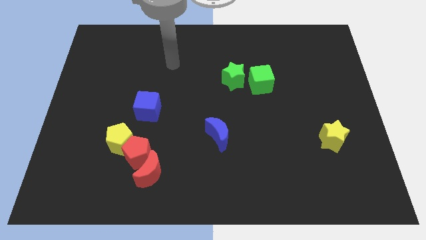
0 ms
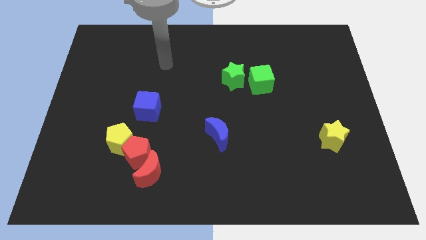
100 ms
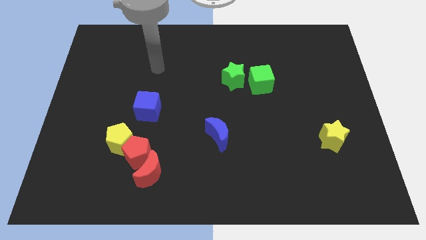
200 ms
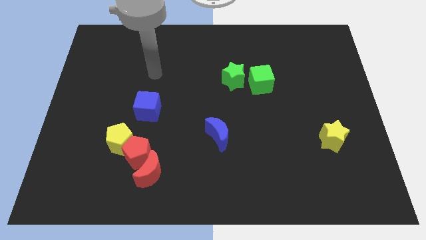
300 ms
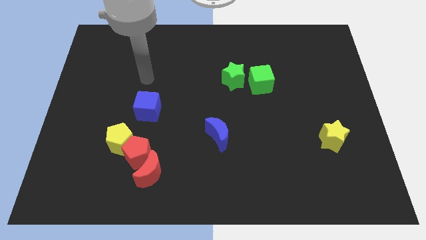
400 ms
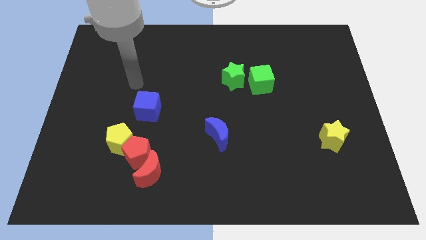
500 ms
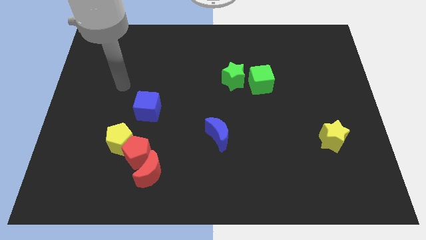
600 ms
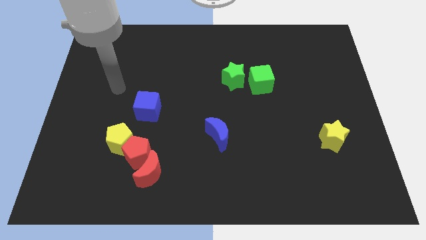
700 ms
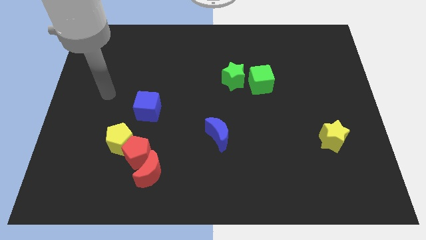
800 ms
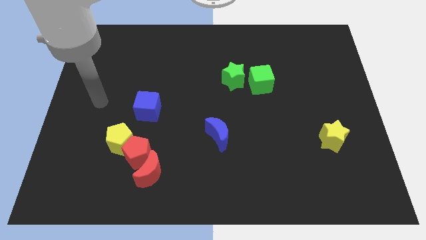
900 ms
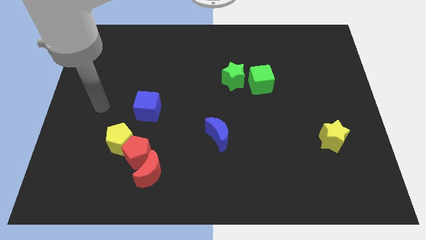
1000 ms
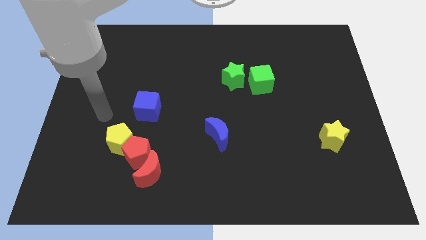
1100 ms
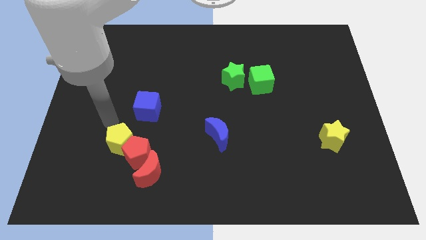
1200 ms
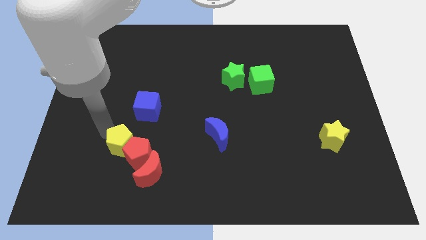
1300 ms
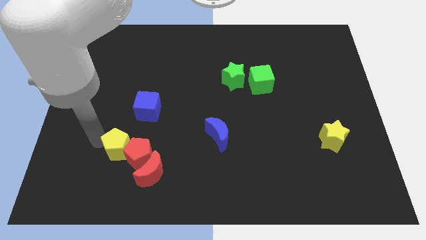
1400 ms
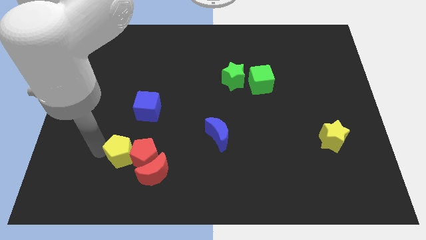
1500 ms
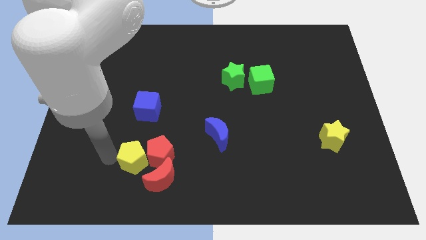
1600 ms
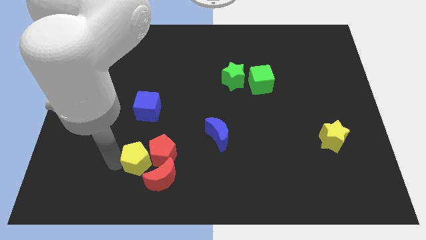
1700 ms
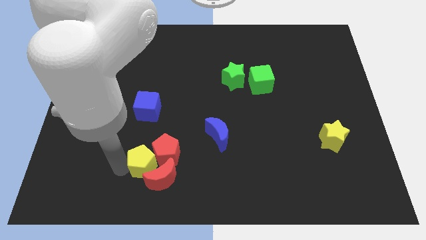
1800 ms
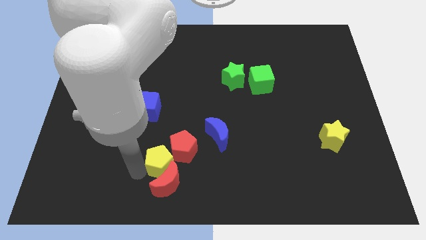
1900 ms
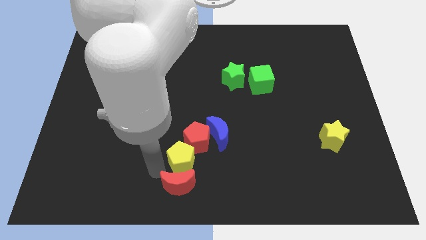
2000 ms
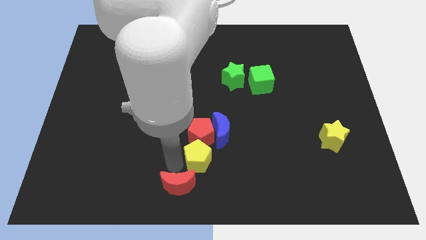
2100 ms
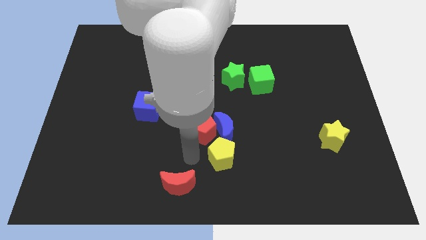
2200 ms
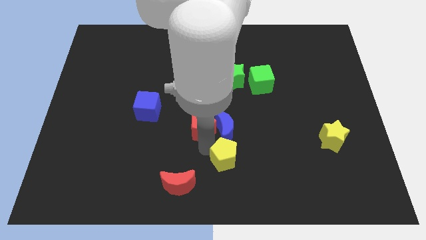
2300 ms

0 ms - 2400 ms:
pull the red pentagon apart from the yellow pentagon and red moon

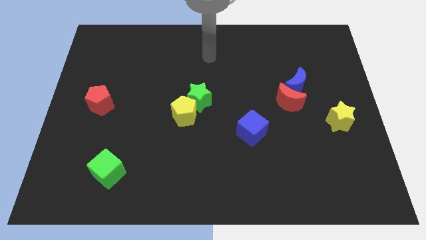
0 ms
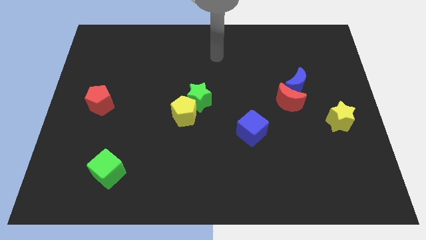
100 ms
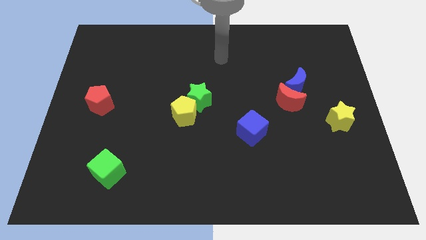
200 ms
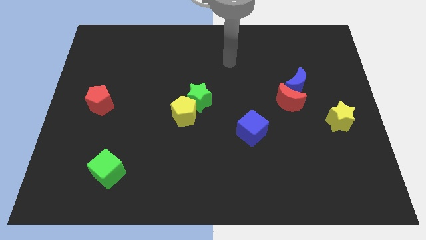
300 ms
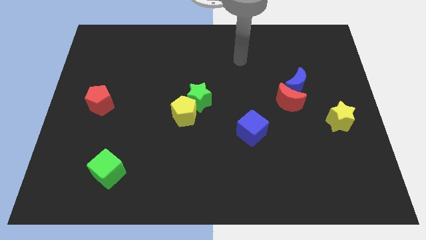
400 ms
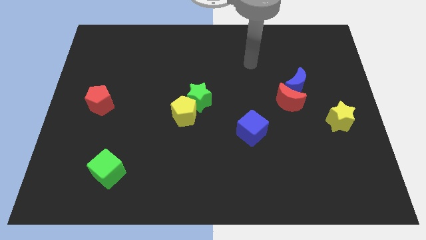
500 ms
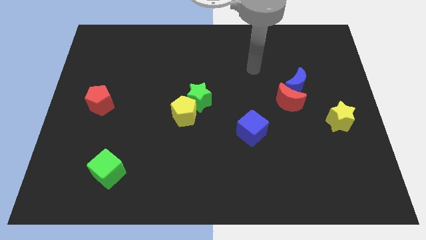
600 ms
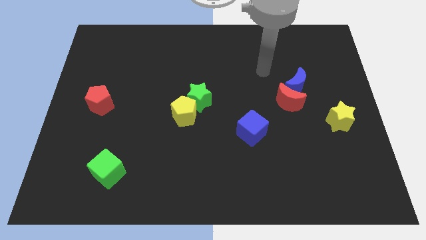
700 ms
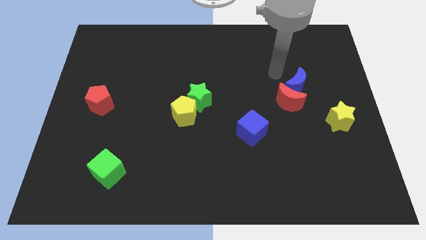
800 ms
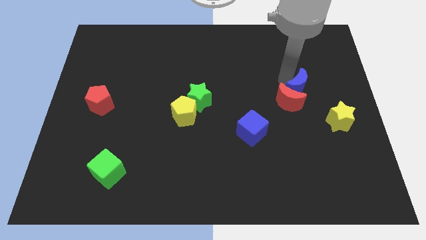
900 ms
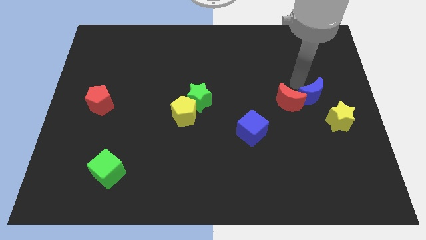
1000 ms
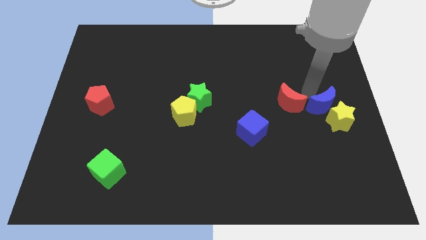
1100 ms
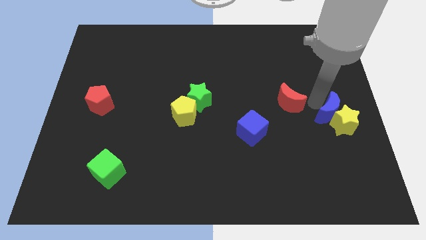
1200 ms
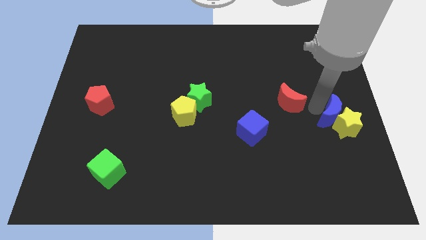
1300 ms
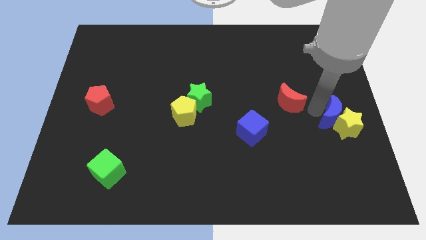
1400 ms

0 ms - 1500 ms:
move the red moon away from the blue moon

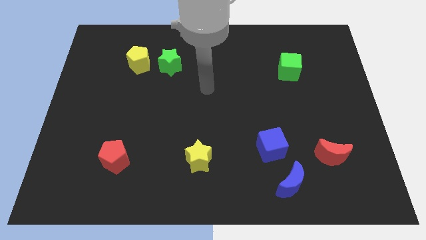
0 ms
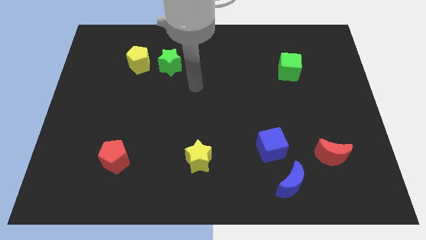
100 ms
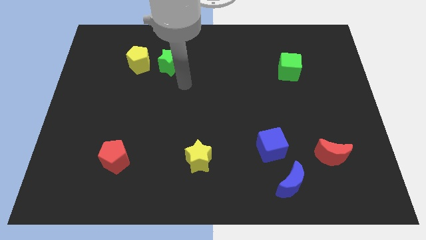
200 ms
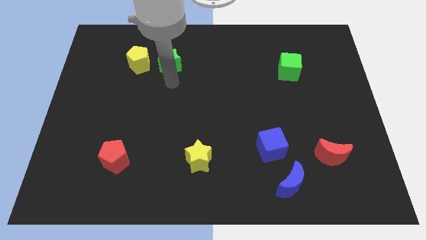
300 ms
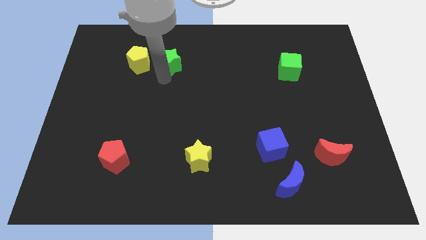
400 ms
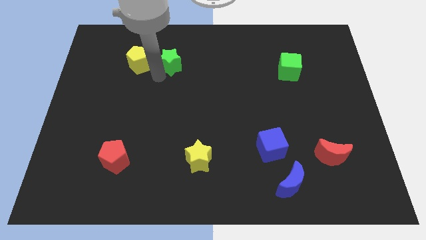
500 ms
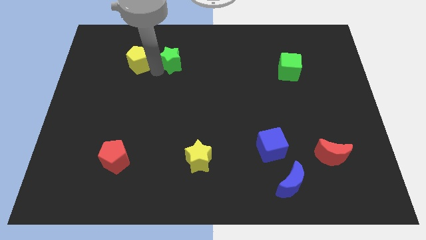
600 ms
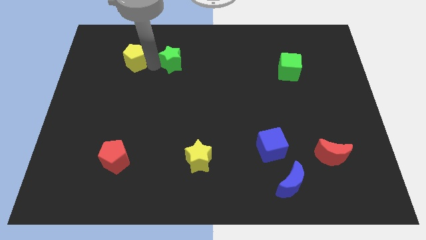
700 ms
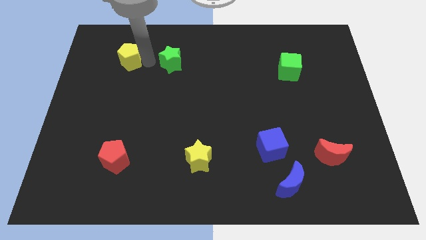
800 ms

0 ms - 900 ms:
separate the green star from the yellow pentagon

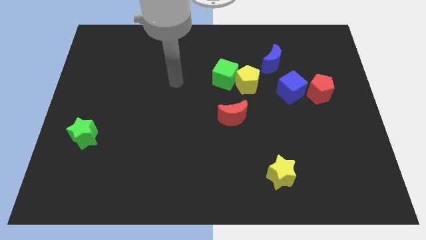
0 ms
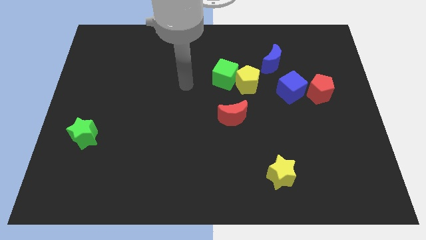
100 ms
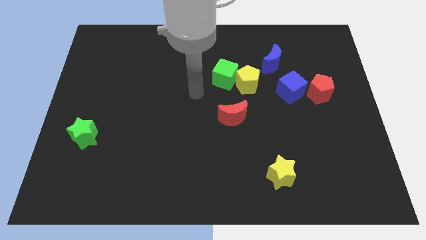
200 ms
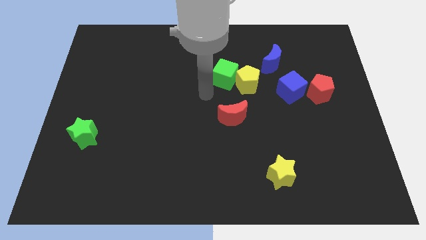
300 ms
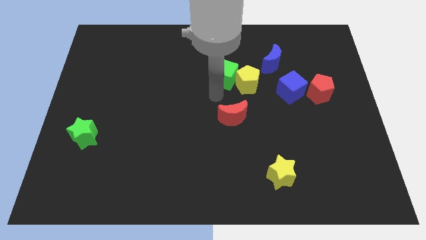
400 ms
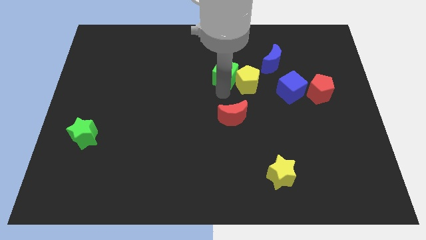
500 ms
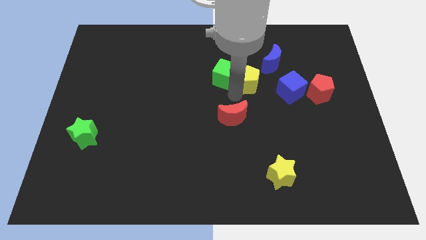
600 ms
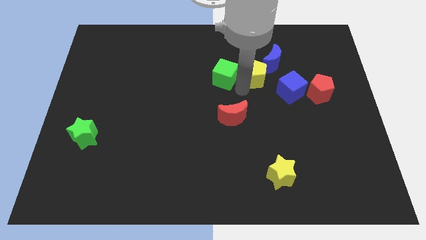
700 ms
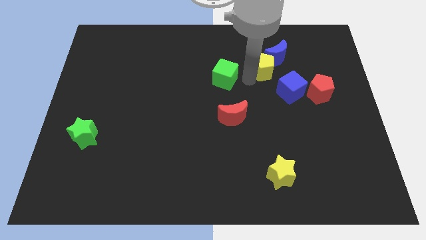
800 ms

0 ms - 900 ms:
pull the green cube apart from the yellow pentagon

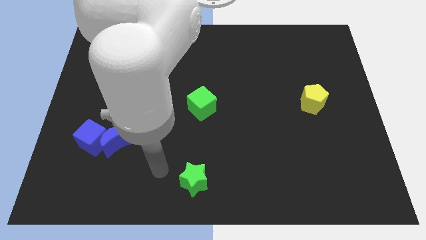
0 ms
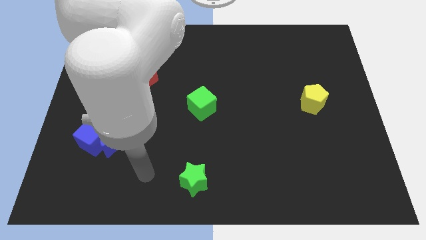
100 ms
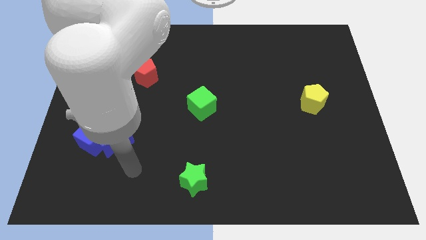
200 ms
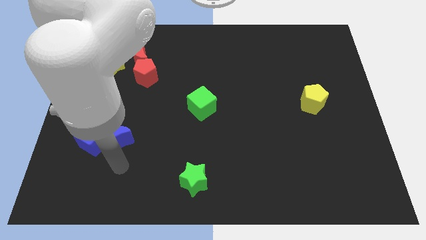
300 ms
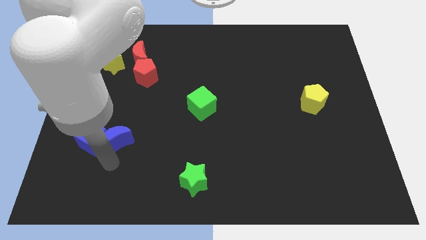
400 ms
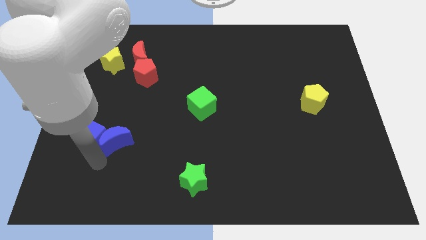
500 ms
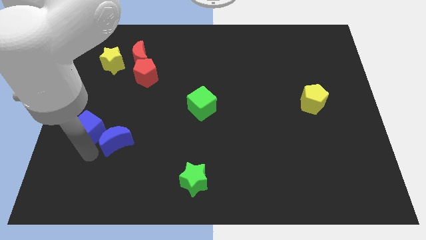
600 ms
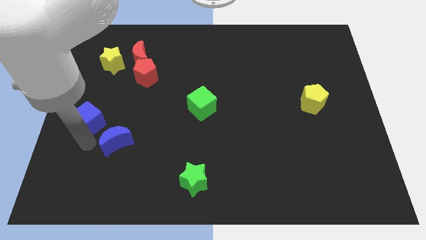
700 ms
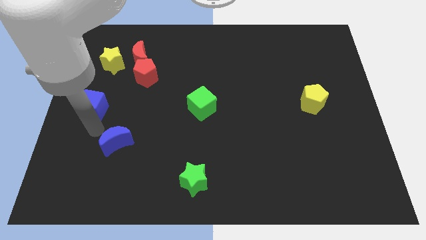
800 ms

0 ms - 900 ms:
pull the blue moon apart from the blue cube

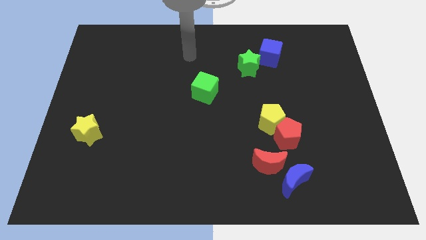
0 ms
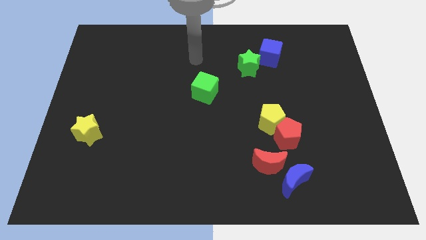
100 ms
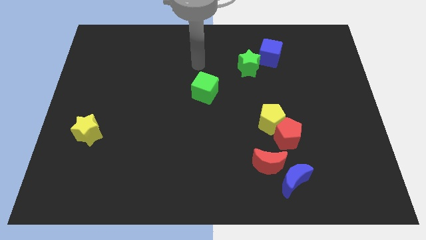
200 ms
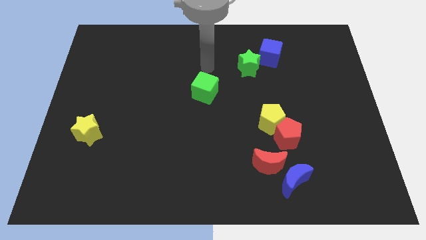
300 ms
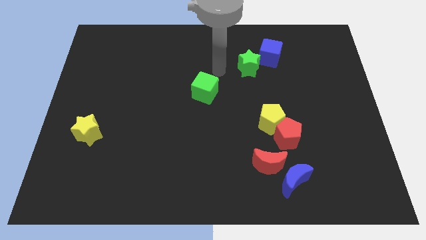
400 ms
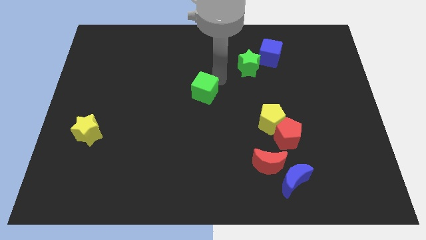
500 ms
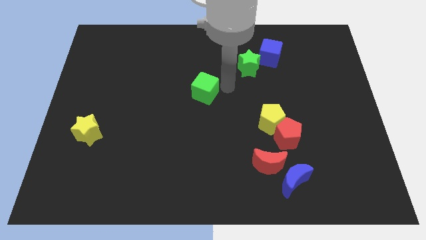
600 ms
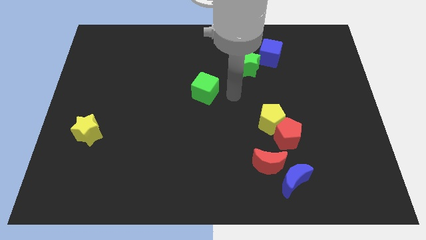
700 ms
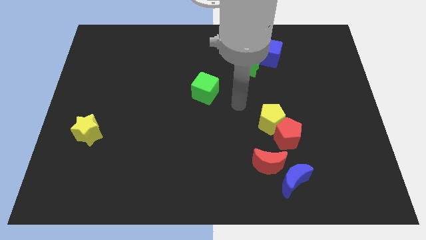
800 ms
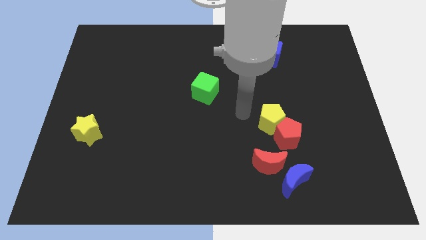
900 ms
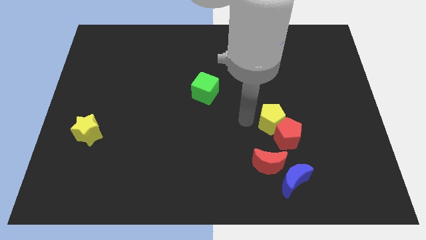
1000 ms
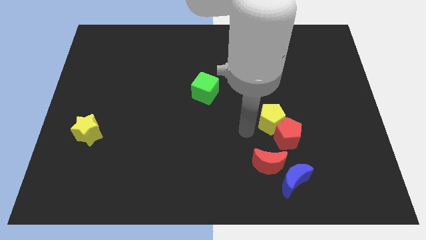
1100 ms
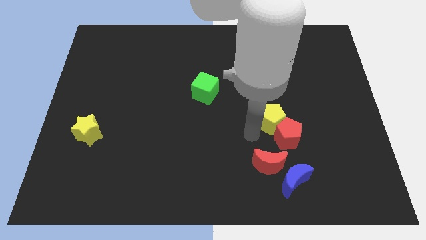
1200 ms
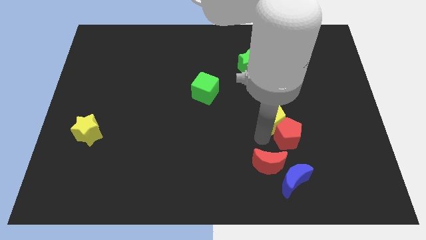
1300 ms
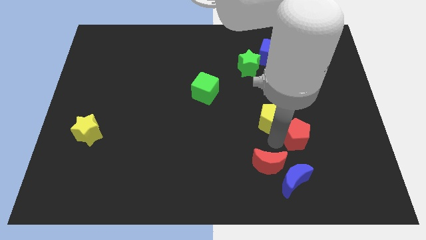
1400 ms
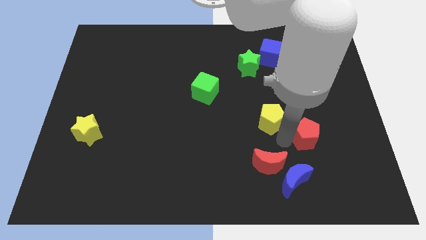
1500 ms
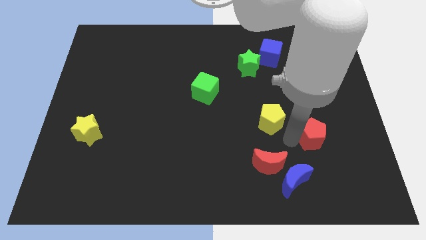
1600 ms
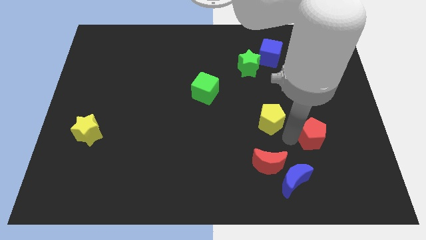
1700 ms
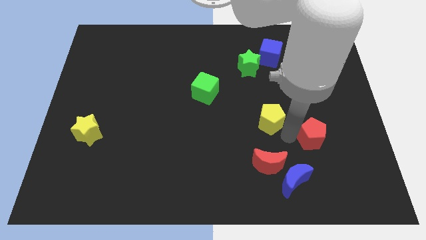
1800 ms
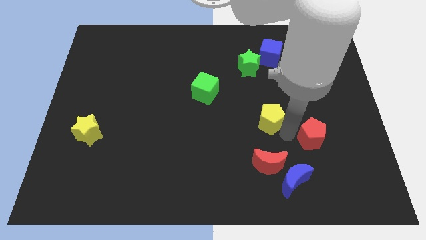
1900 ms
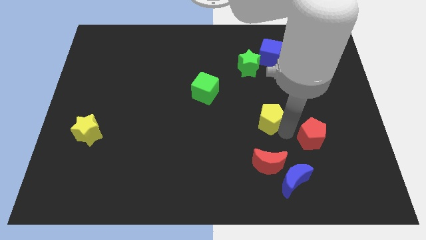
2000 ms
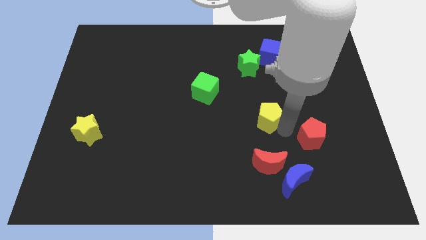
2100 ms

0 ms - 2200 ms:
separate the yellow pentagon from the red pentagon

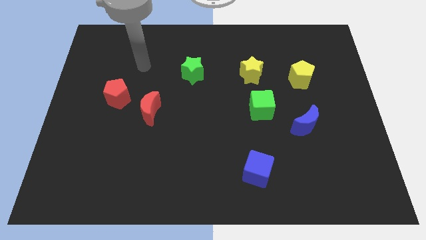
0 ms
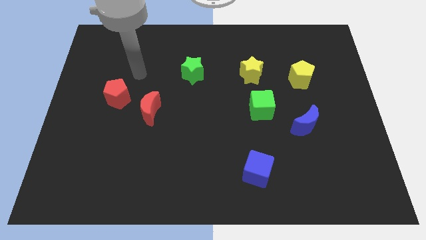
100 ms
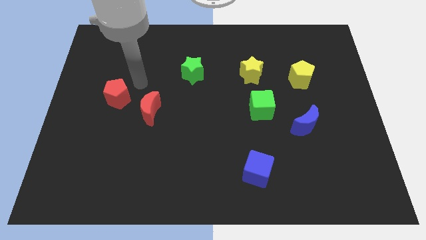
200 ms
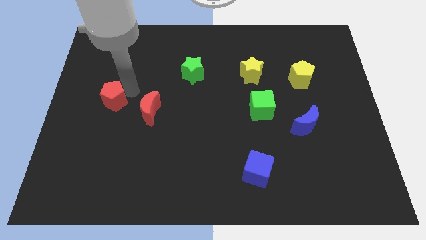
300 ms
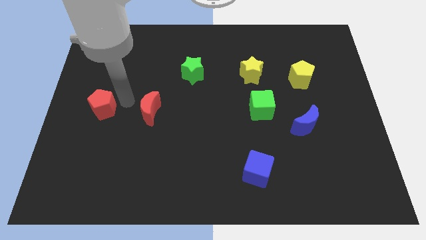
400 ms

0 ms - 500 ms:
move the red moon away from the red pentagon
